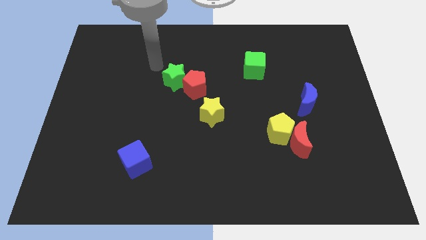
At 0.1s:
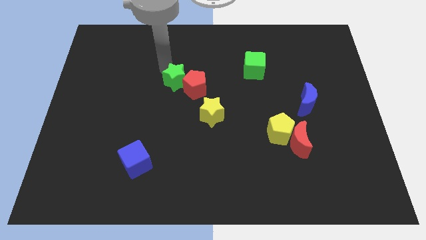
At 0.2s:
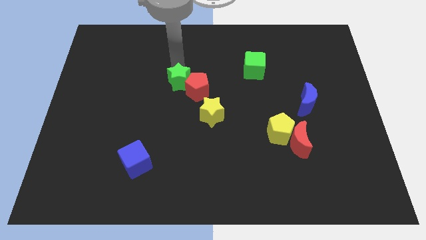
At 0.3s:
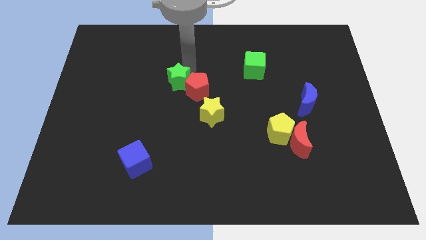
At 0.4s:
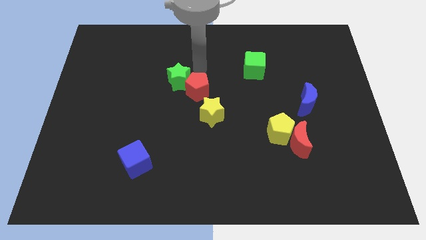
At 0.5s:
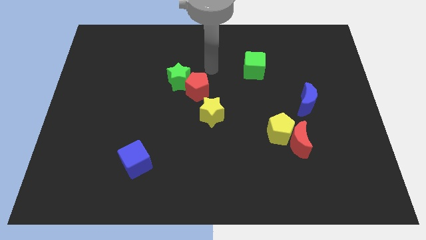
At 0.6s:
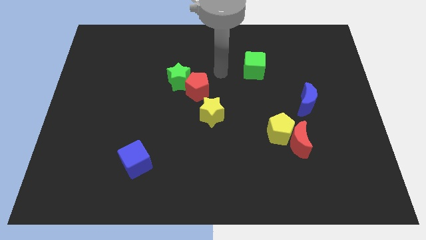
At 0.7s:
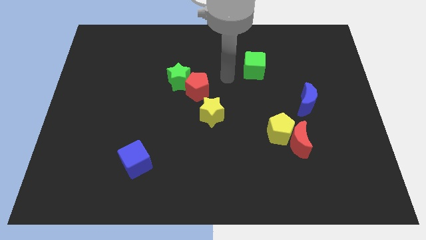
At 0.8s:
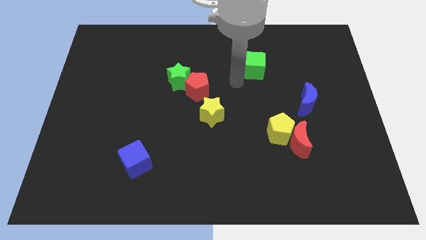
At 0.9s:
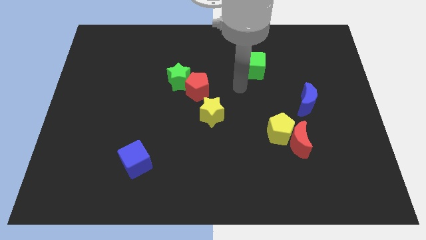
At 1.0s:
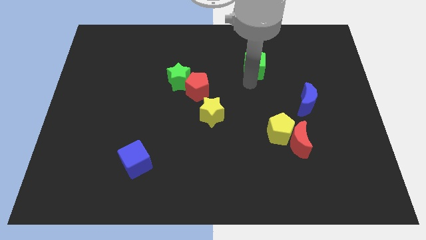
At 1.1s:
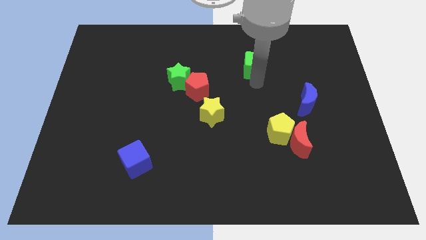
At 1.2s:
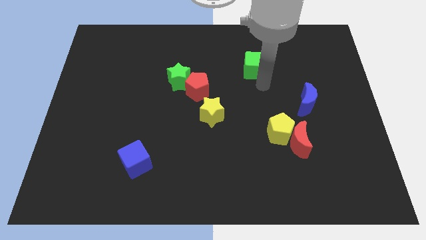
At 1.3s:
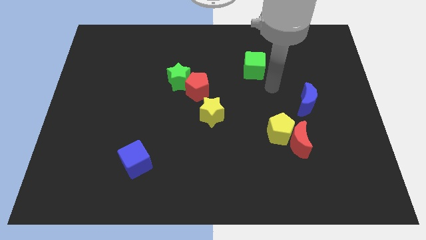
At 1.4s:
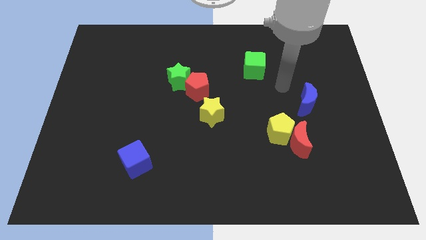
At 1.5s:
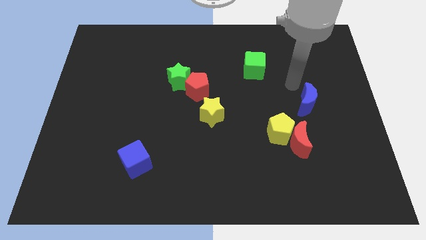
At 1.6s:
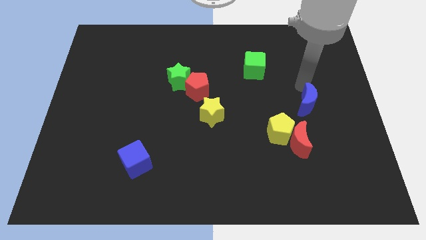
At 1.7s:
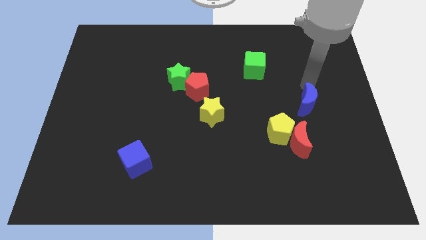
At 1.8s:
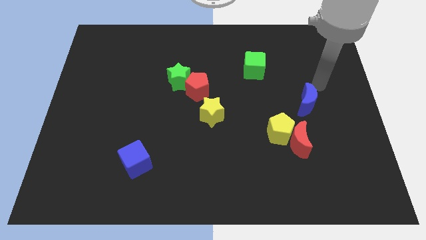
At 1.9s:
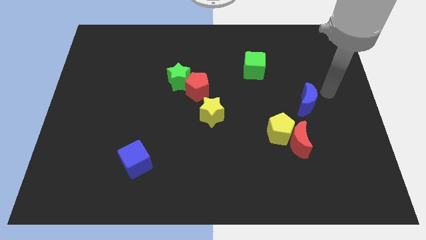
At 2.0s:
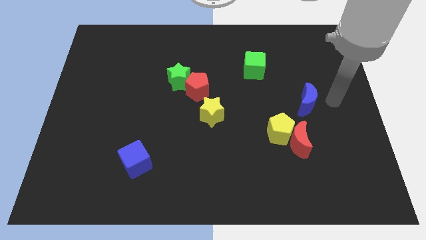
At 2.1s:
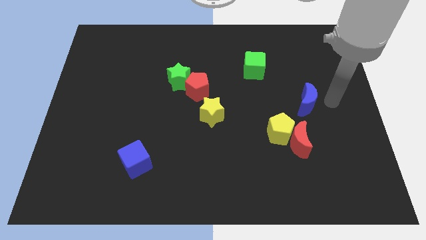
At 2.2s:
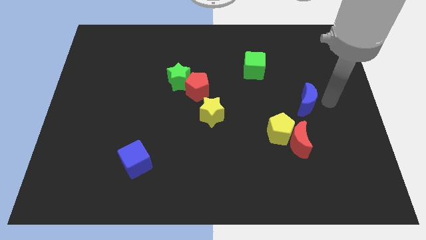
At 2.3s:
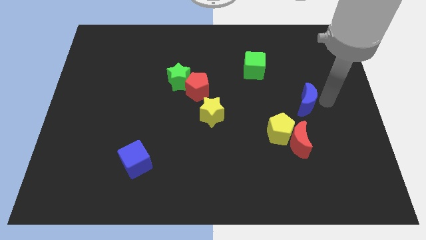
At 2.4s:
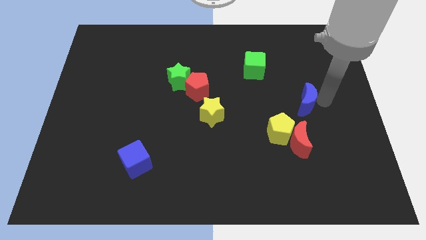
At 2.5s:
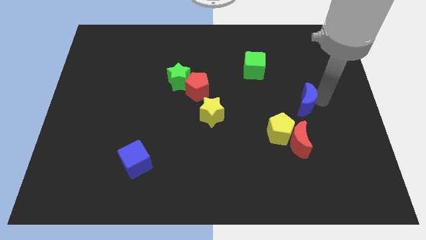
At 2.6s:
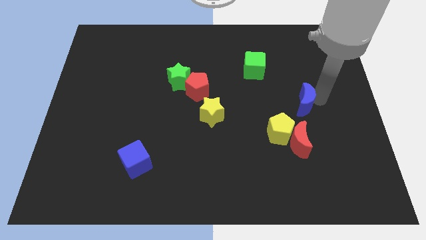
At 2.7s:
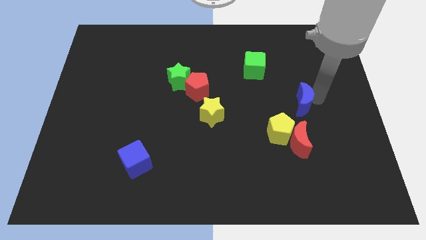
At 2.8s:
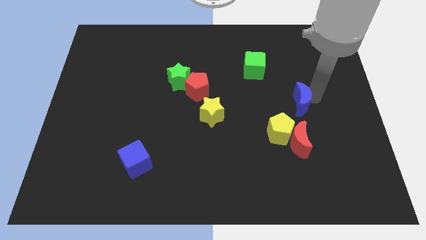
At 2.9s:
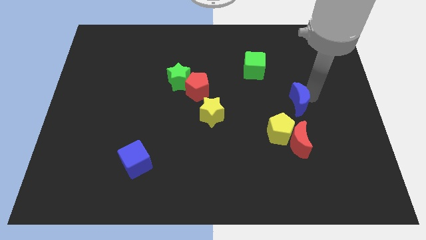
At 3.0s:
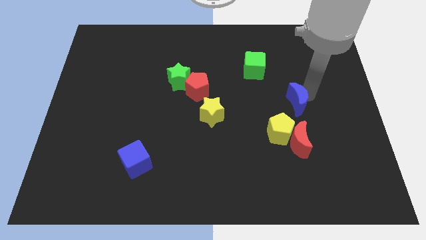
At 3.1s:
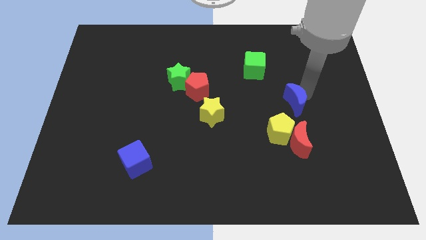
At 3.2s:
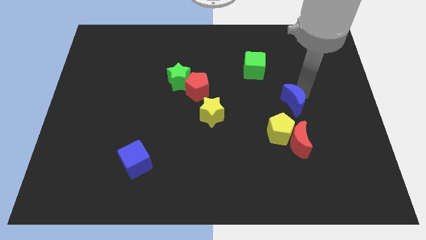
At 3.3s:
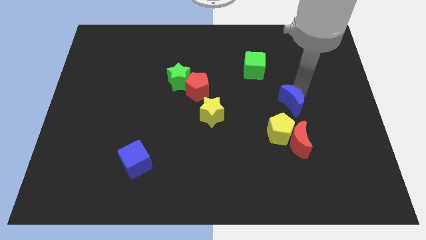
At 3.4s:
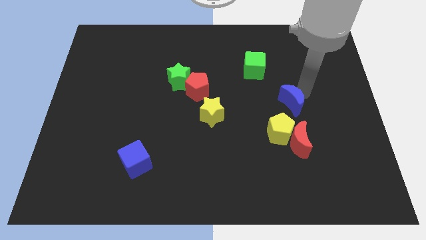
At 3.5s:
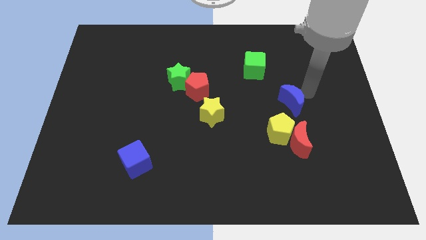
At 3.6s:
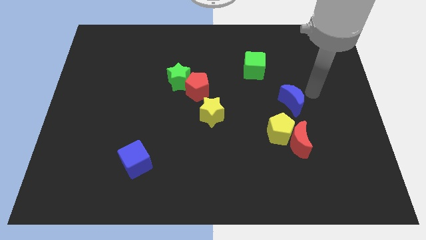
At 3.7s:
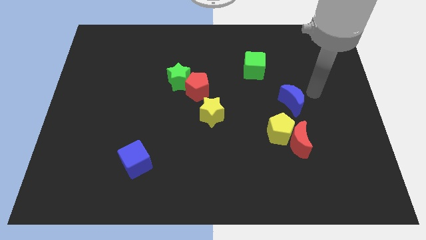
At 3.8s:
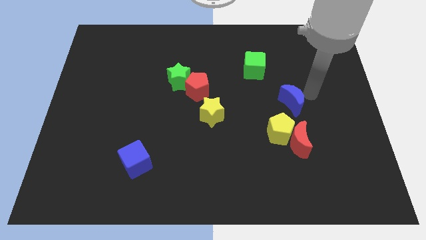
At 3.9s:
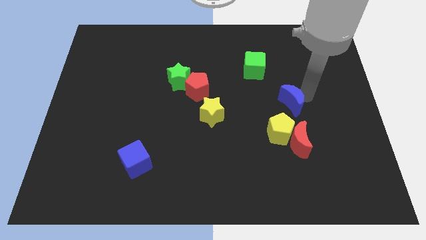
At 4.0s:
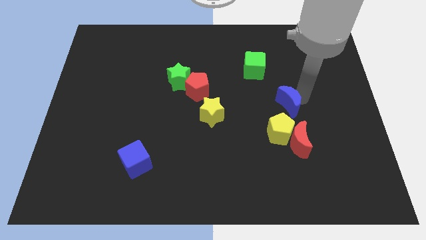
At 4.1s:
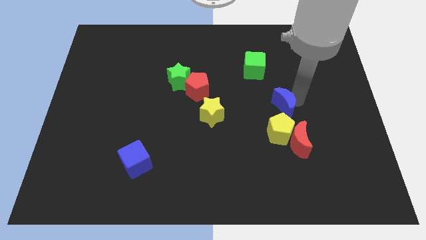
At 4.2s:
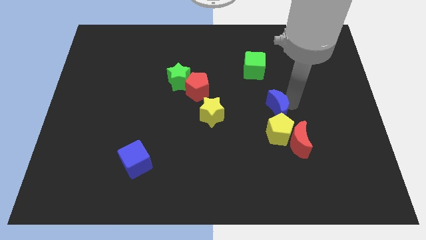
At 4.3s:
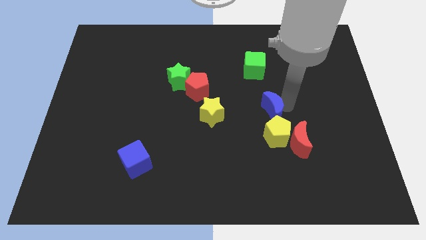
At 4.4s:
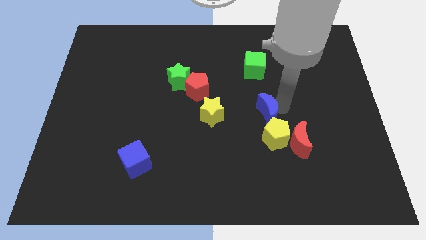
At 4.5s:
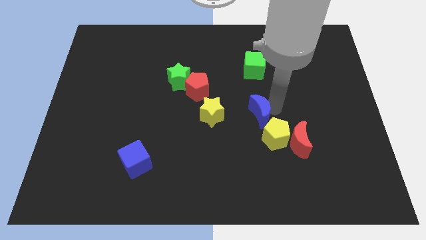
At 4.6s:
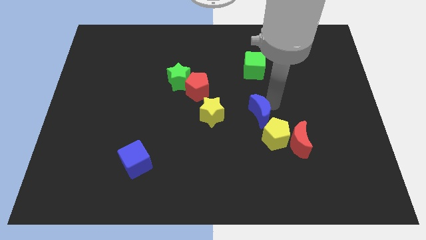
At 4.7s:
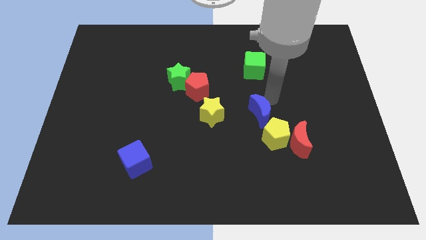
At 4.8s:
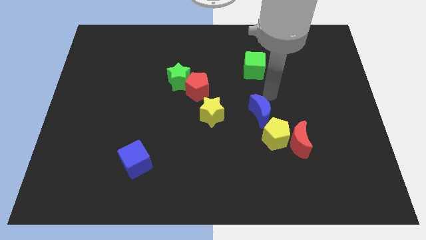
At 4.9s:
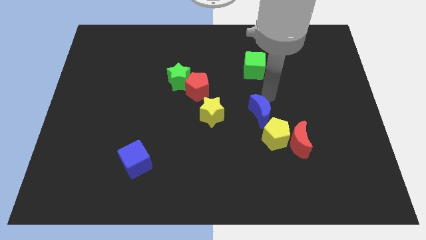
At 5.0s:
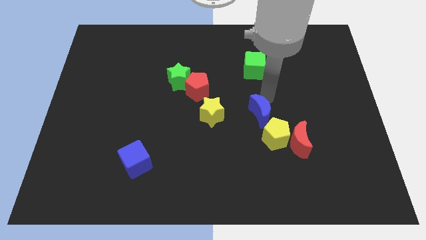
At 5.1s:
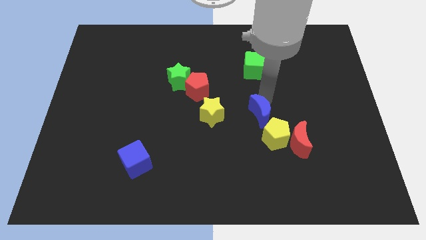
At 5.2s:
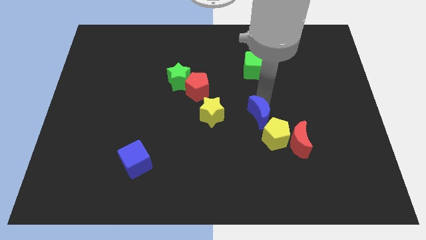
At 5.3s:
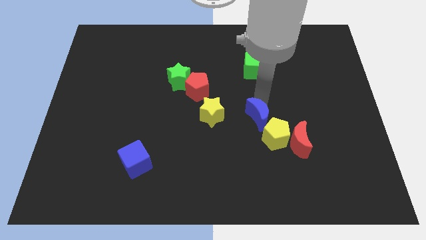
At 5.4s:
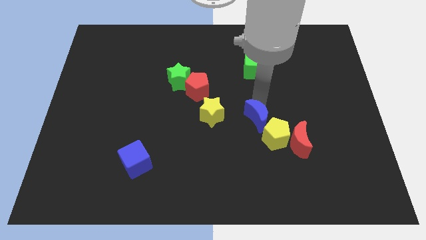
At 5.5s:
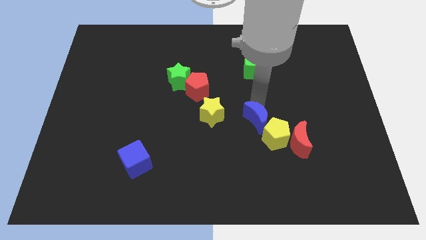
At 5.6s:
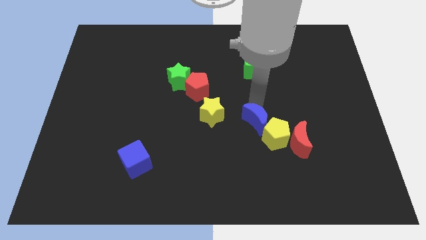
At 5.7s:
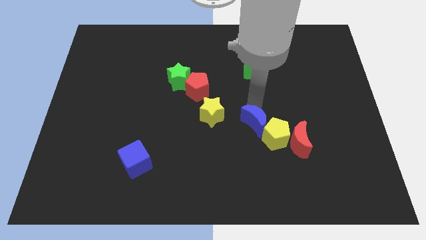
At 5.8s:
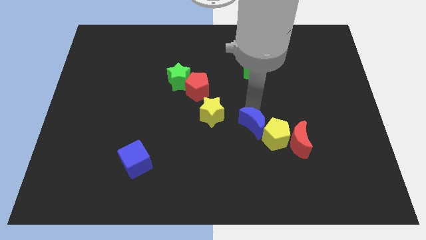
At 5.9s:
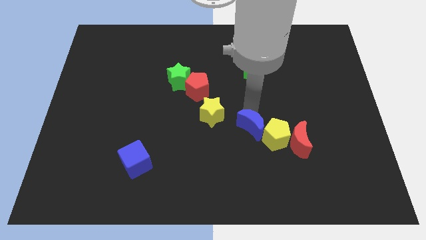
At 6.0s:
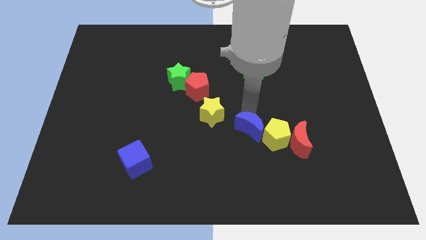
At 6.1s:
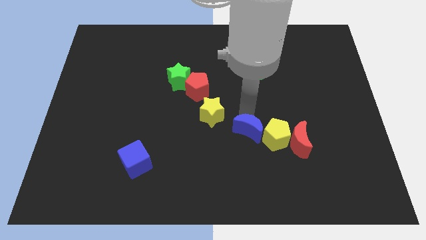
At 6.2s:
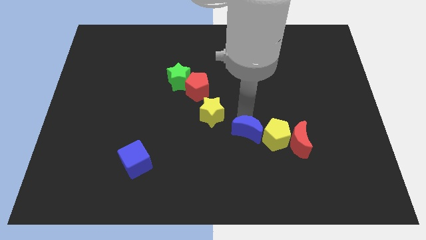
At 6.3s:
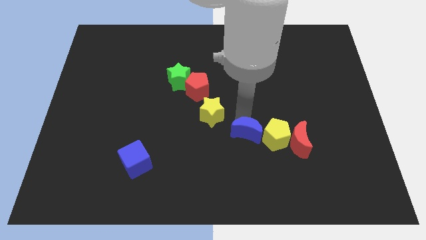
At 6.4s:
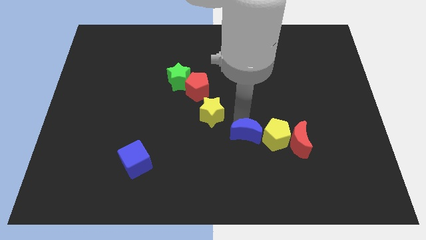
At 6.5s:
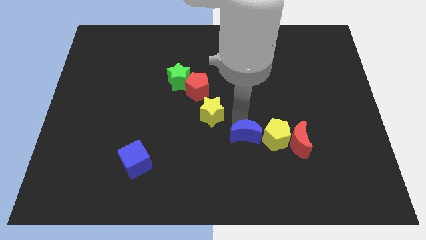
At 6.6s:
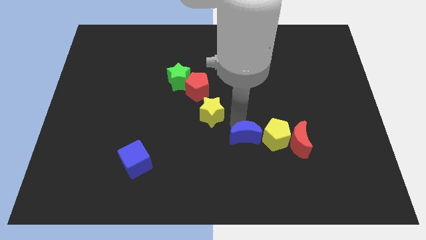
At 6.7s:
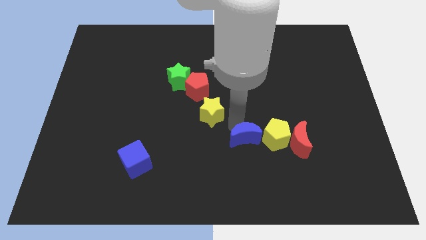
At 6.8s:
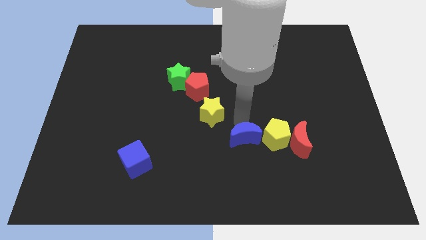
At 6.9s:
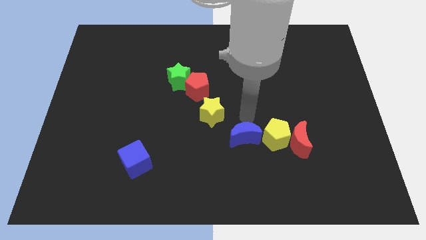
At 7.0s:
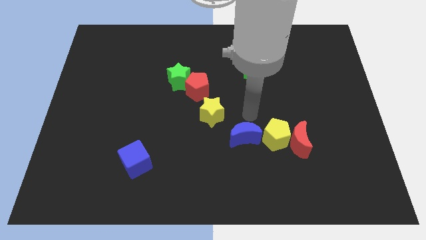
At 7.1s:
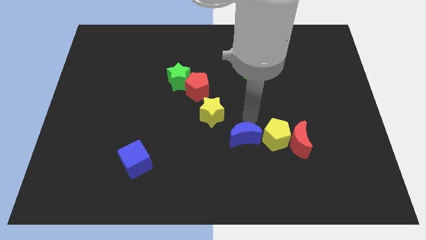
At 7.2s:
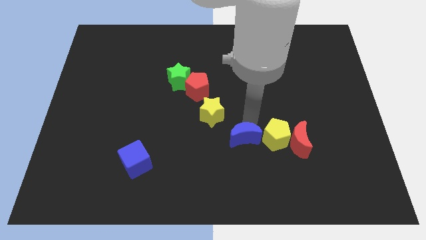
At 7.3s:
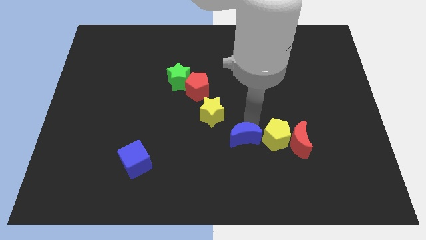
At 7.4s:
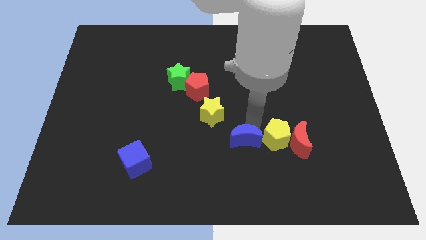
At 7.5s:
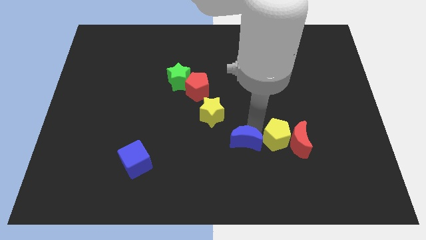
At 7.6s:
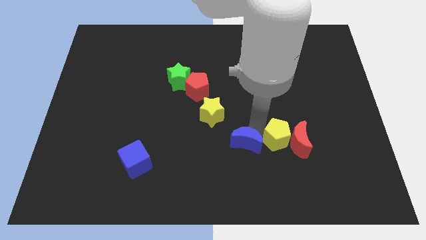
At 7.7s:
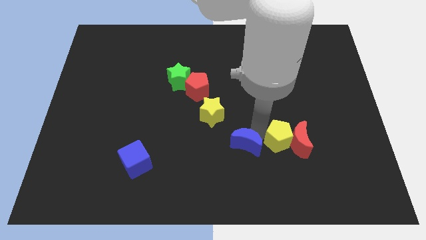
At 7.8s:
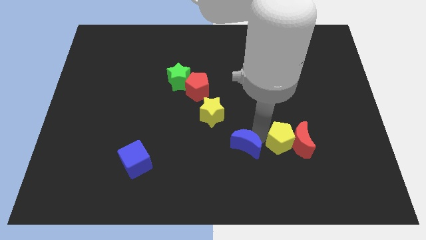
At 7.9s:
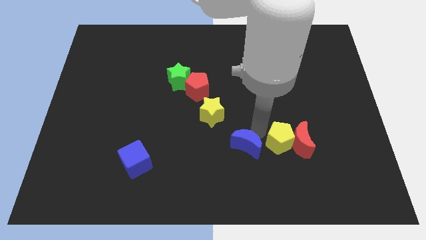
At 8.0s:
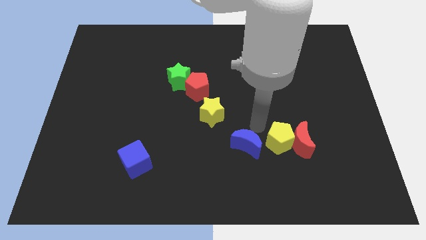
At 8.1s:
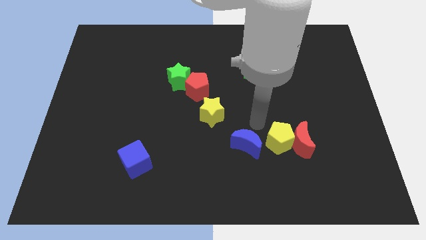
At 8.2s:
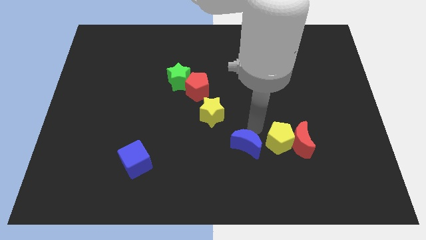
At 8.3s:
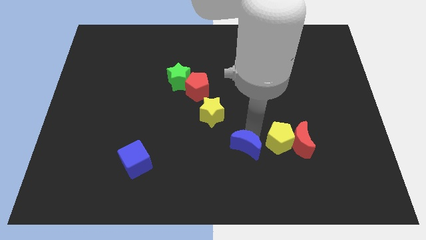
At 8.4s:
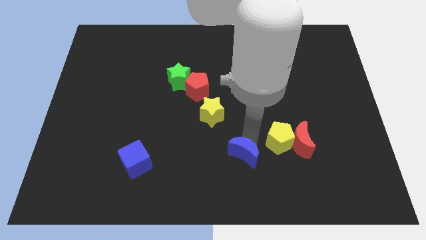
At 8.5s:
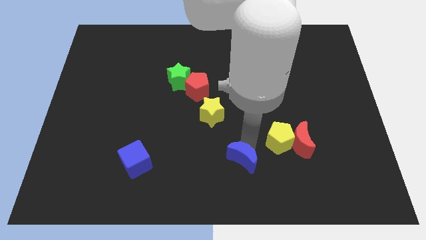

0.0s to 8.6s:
put the blue moon to the bottom side
